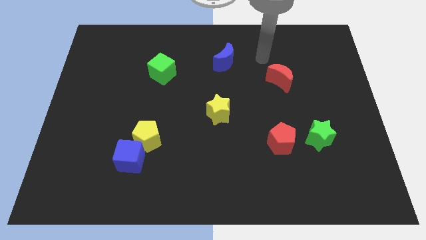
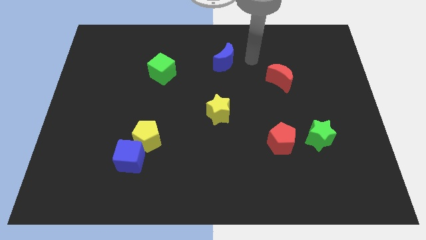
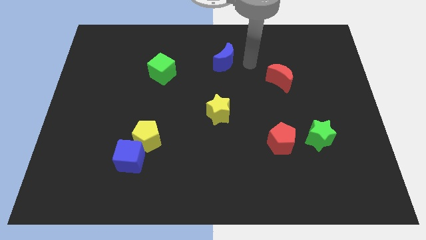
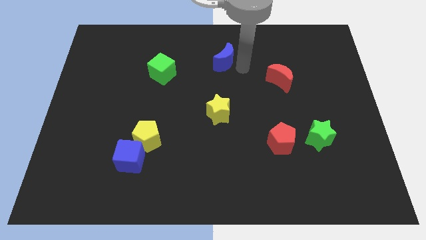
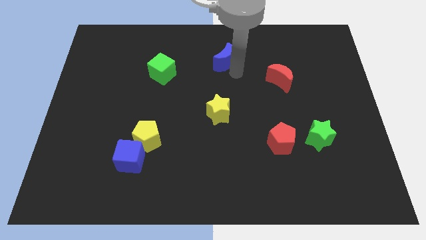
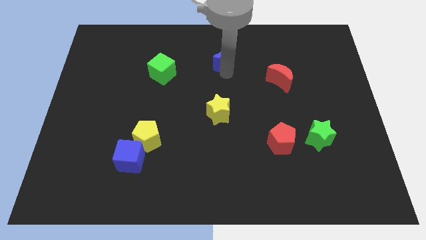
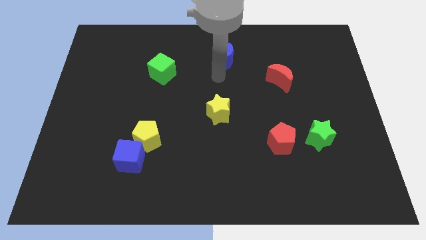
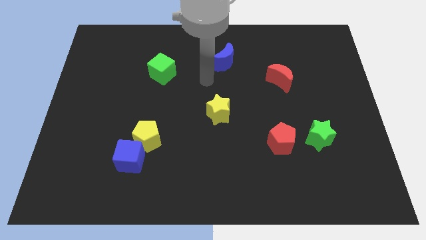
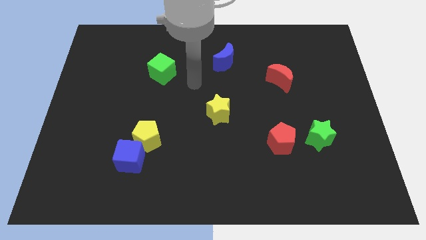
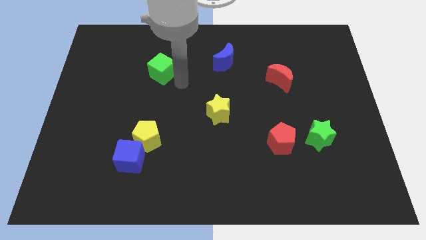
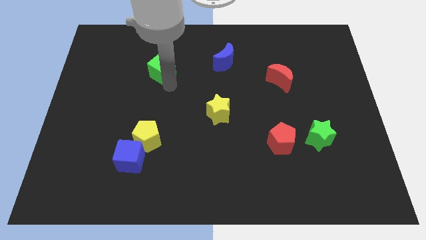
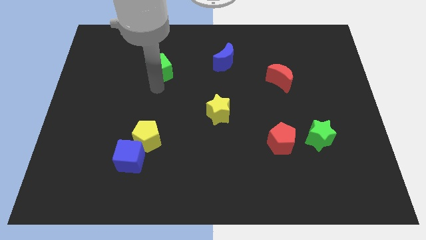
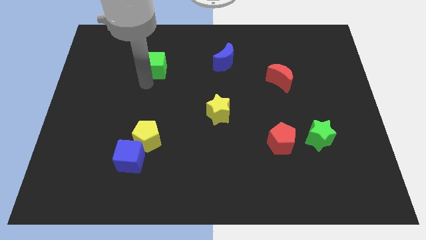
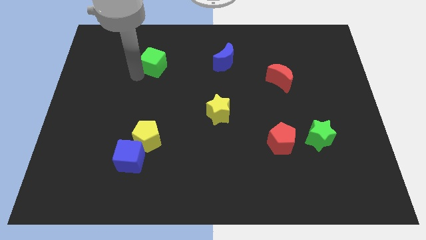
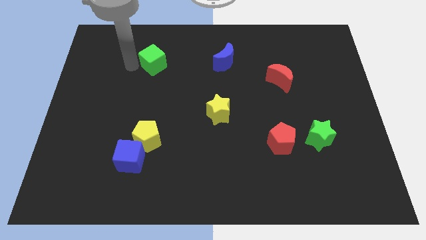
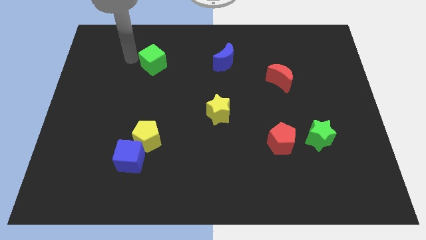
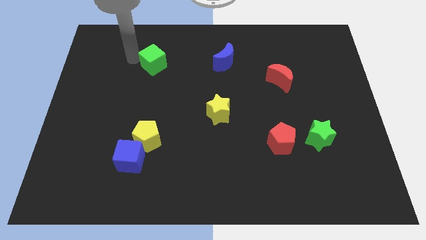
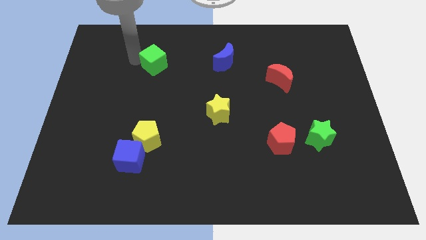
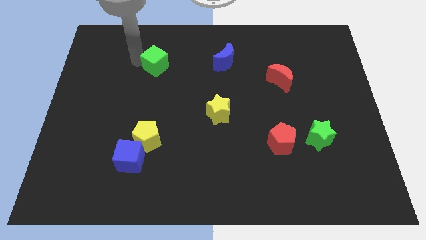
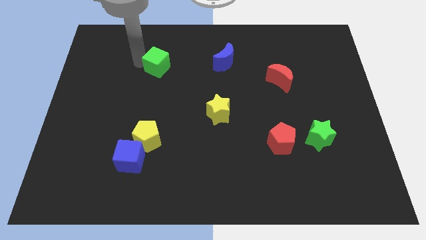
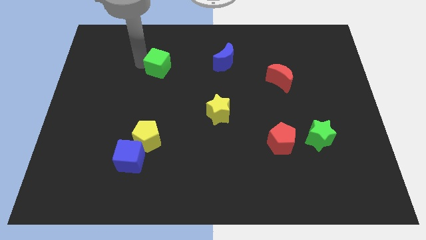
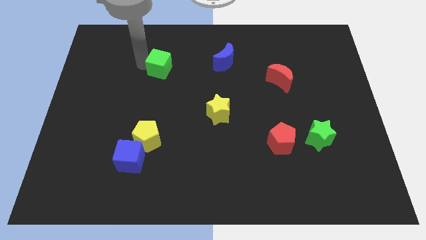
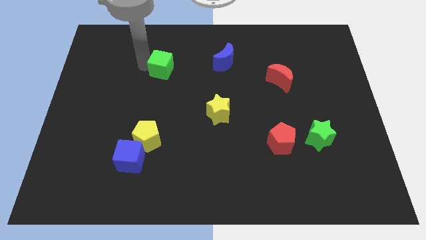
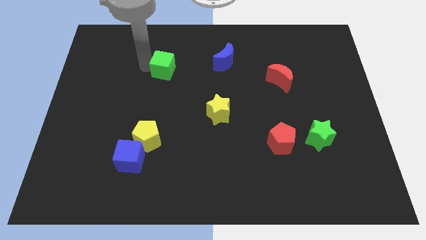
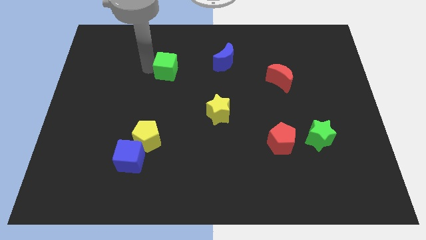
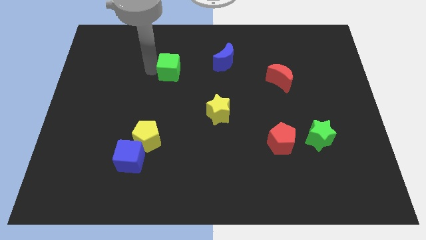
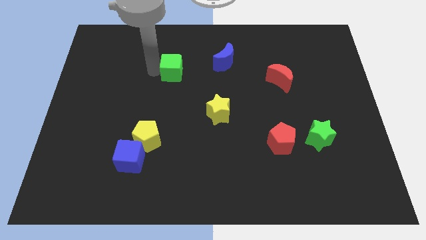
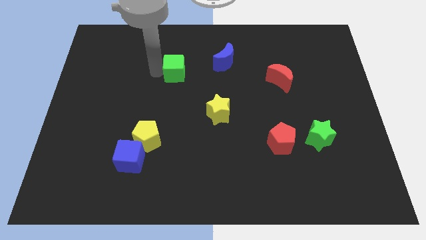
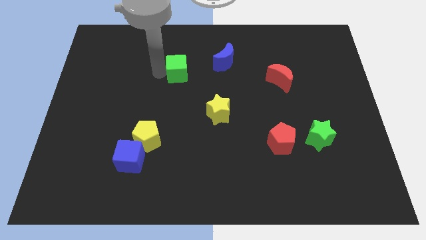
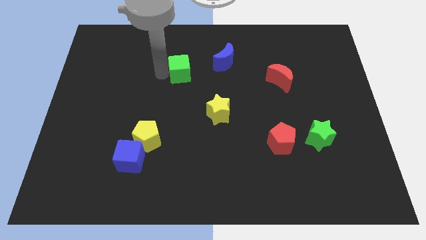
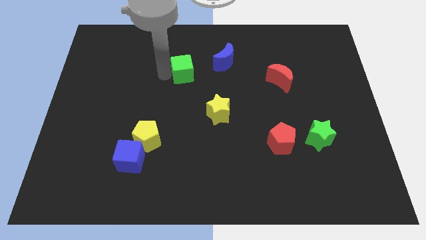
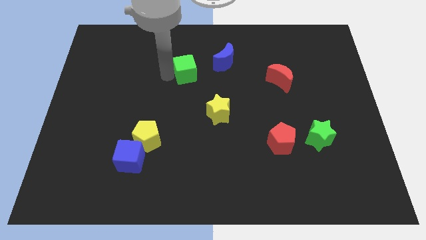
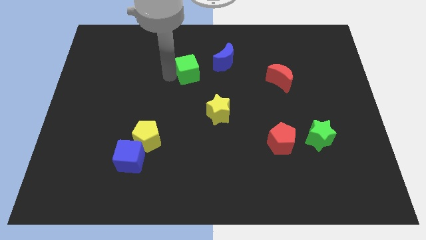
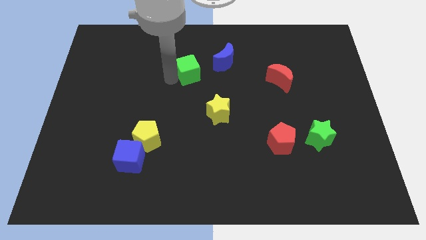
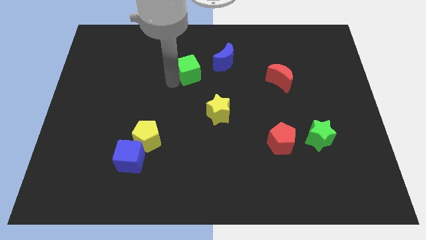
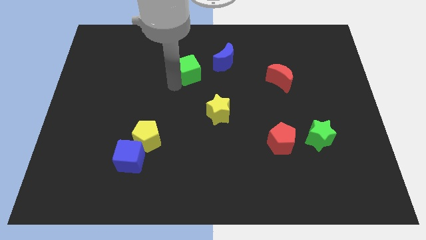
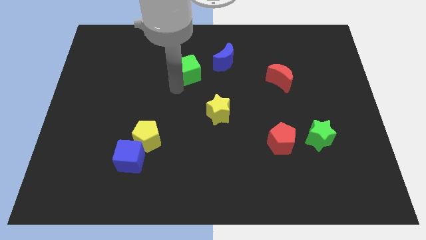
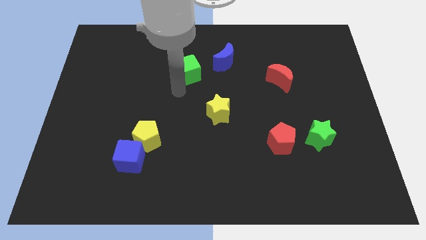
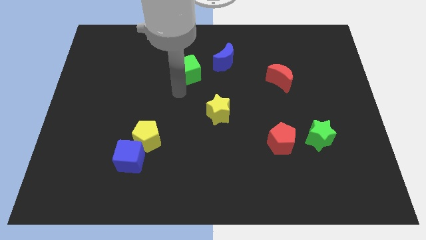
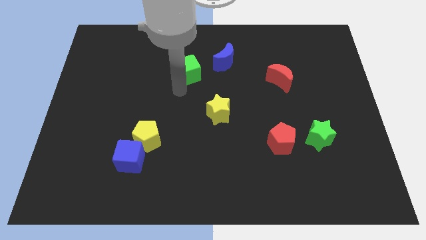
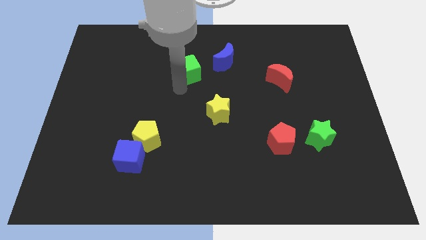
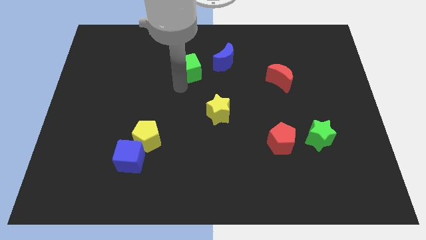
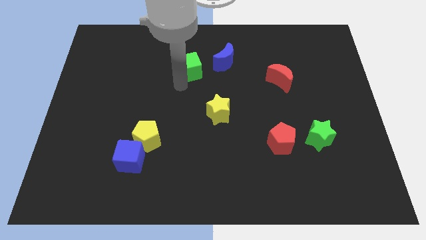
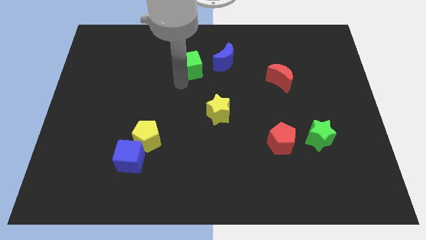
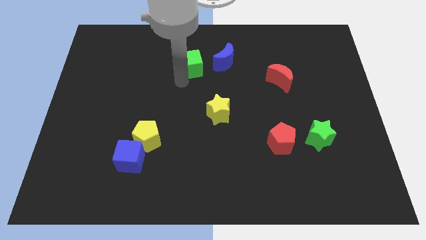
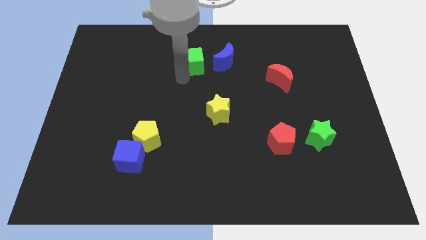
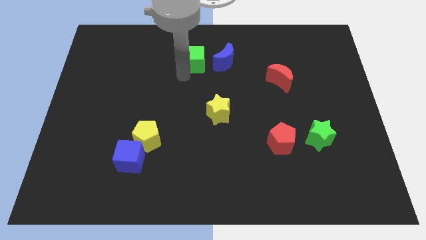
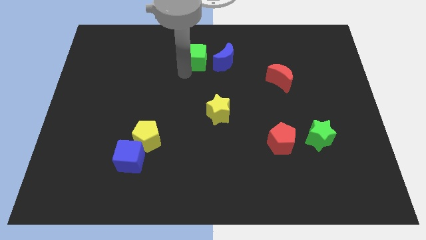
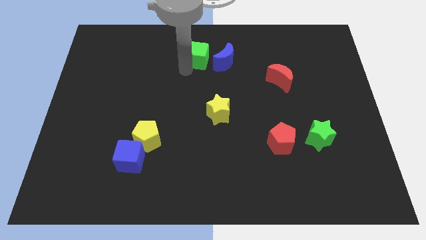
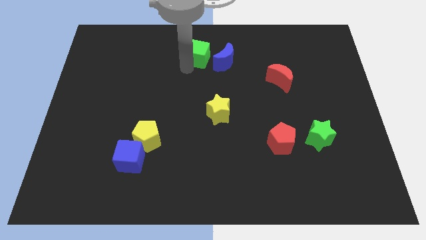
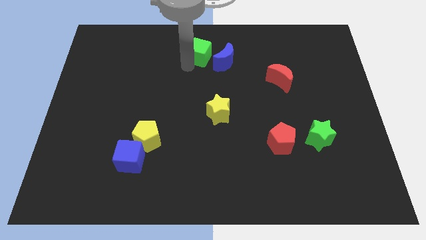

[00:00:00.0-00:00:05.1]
slide the green cube to the top

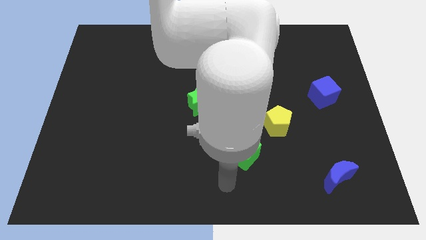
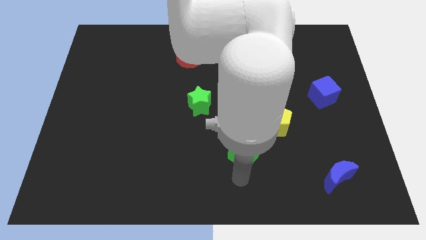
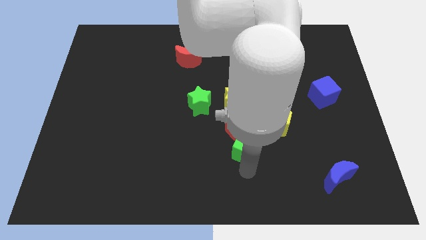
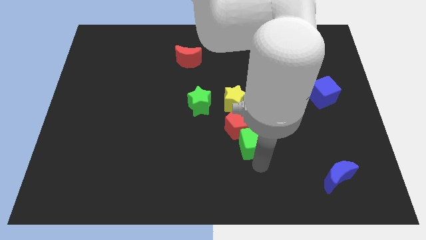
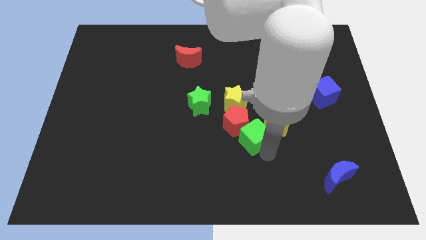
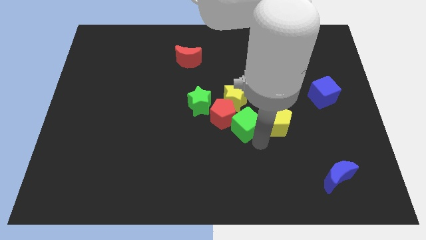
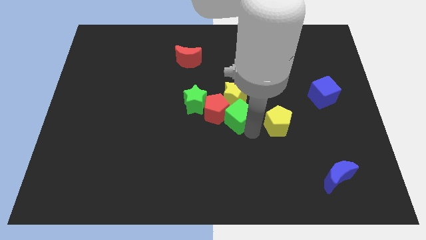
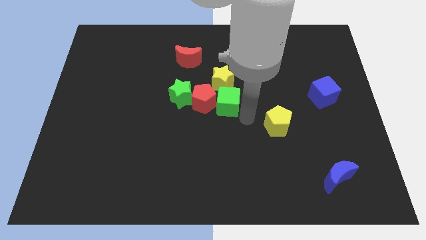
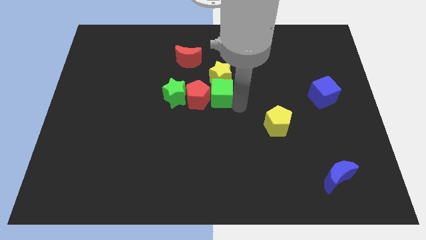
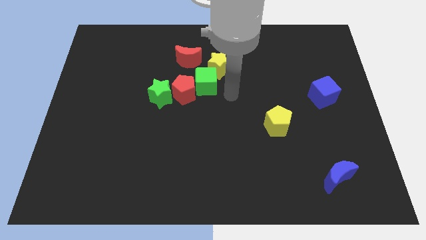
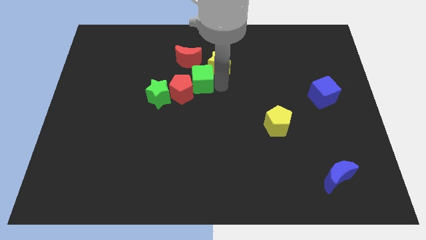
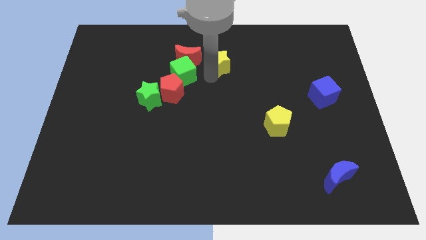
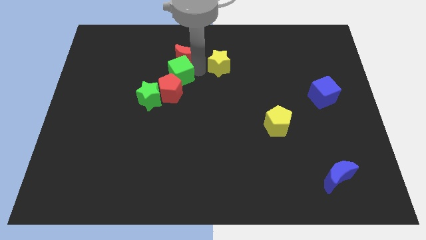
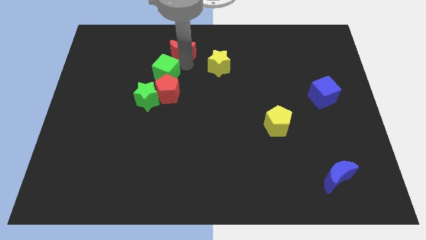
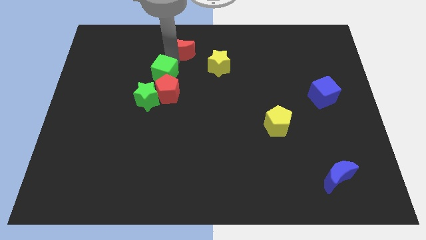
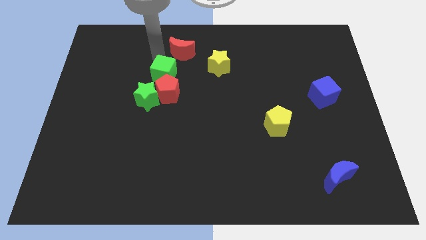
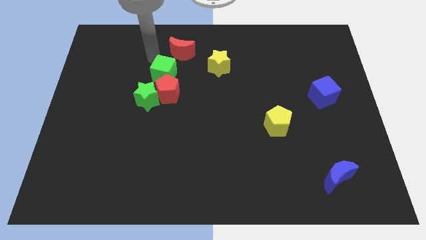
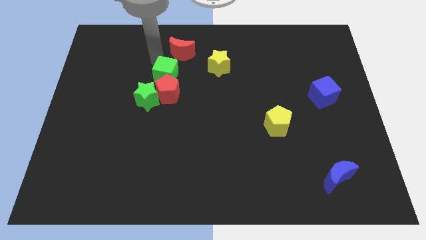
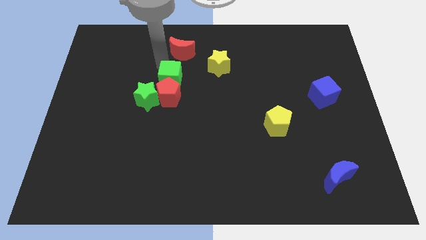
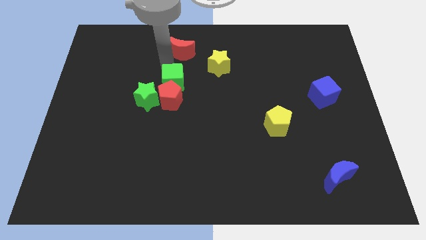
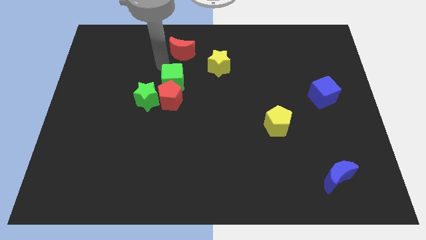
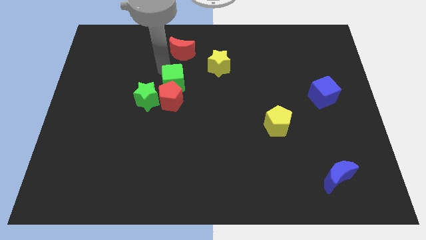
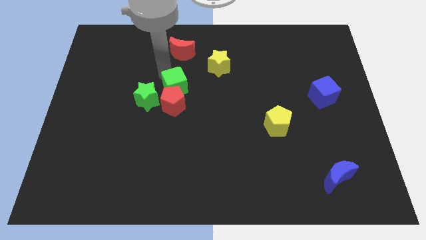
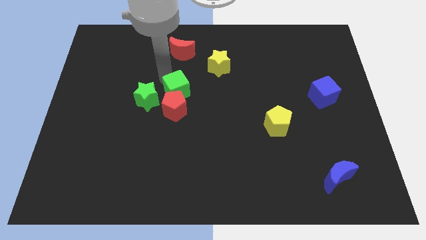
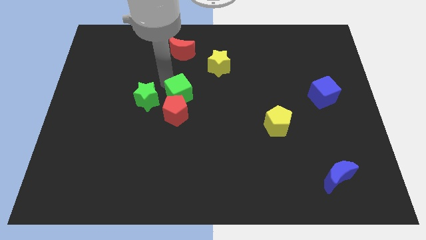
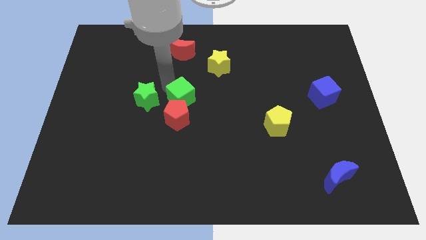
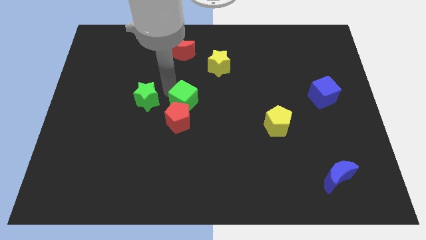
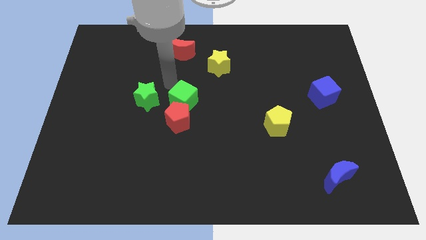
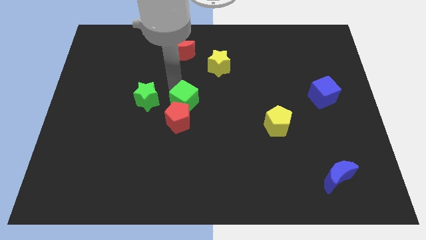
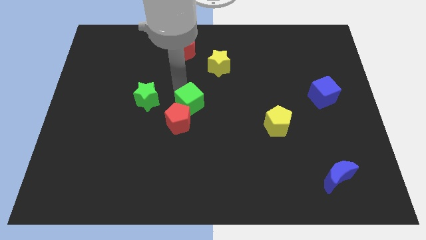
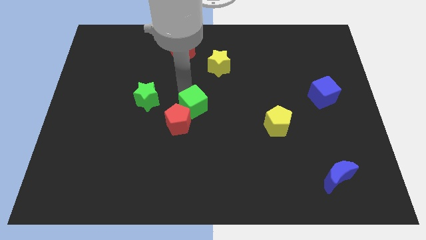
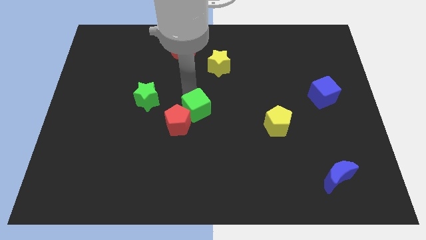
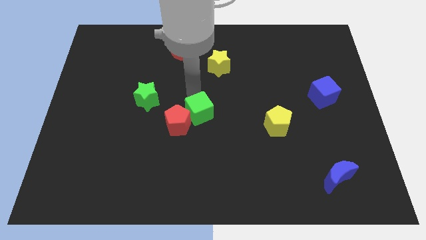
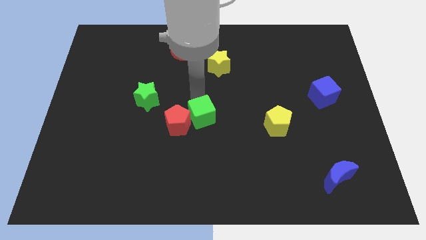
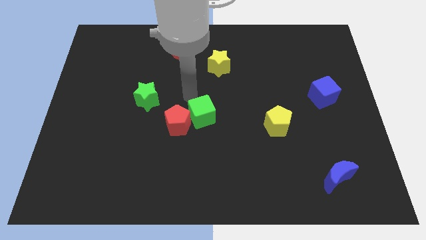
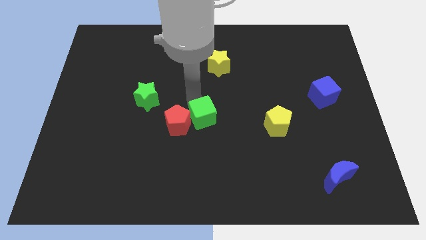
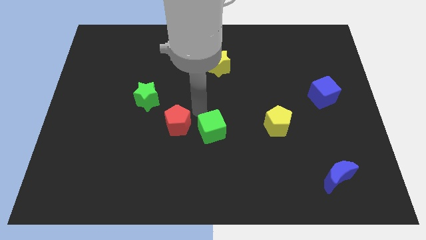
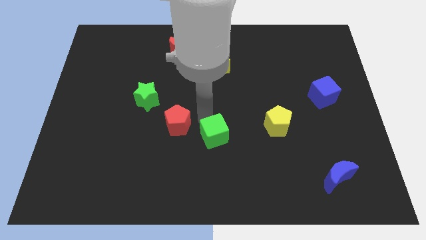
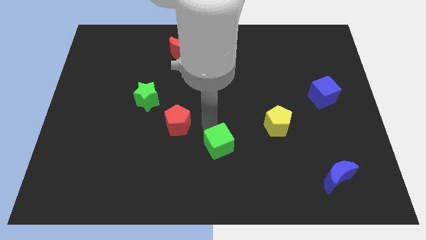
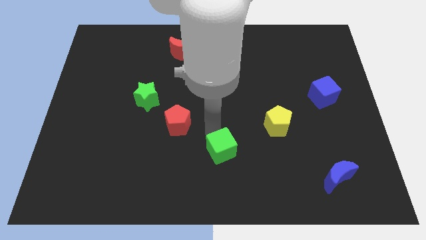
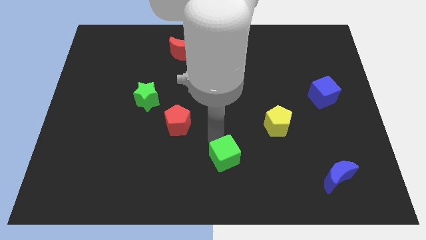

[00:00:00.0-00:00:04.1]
slide the green cube to the bottom side
